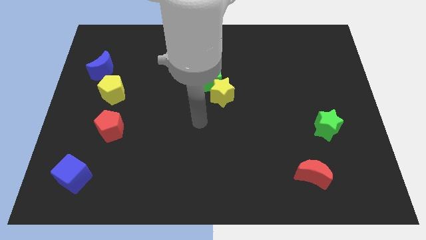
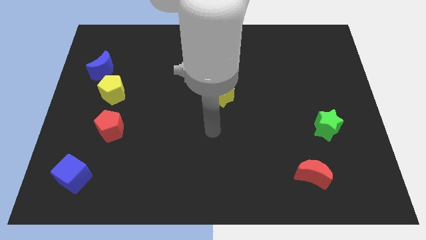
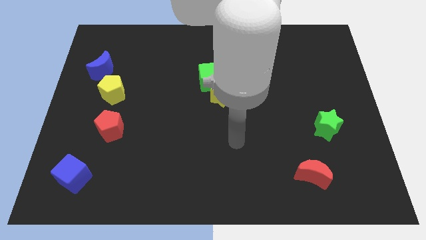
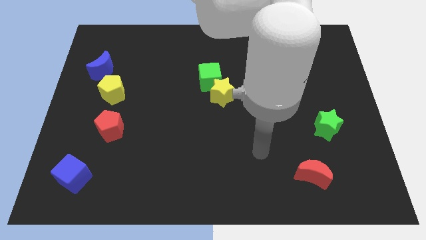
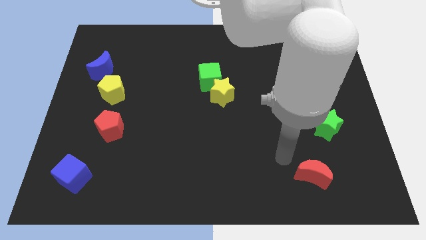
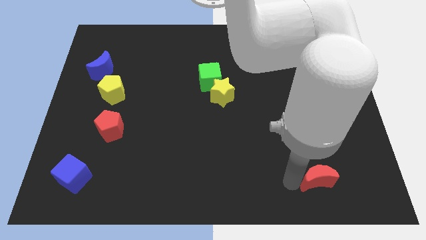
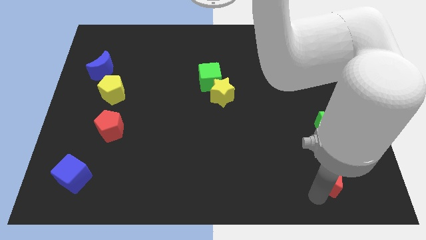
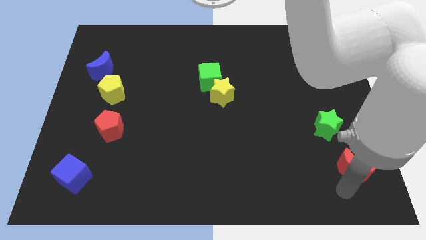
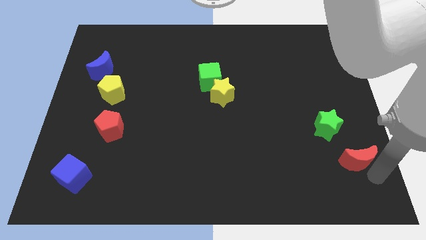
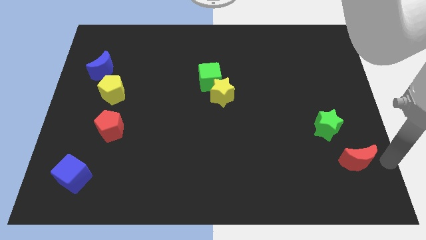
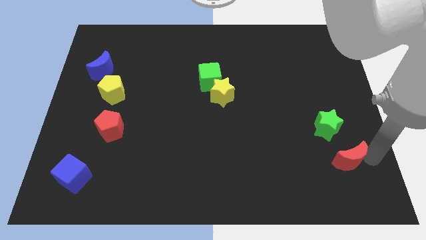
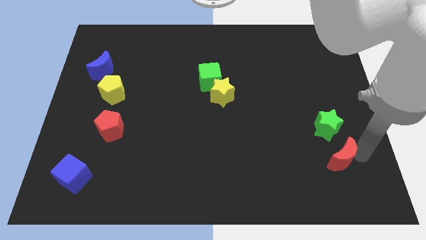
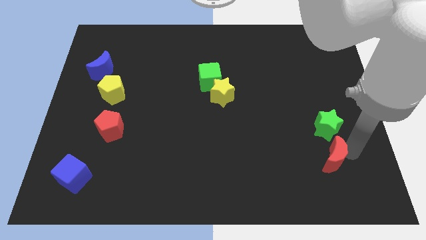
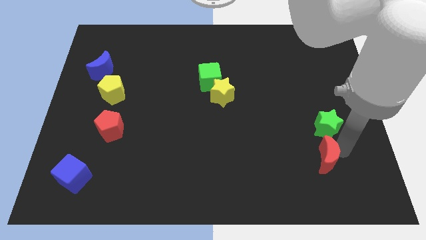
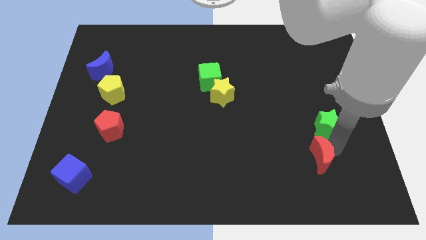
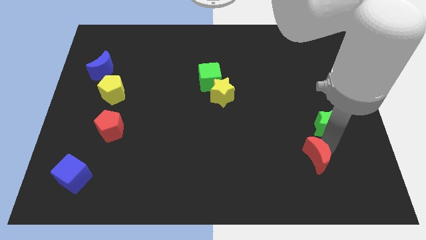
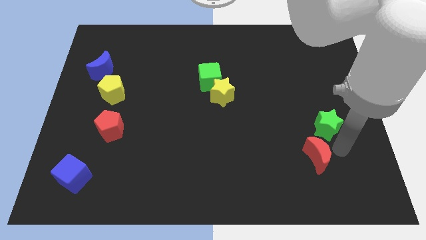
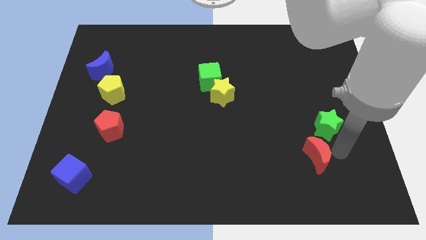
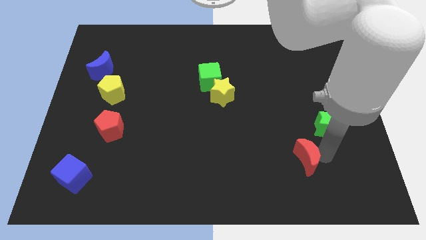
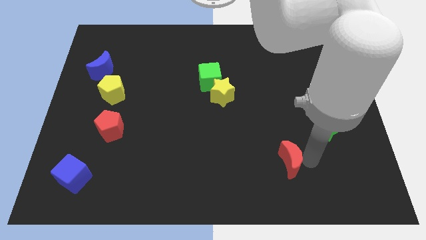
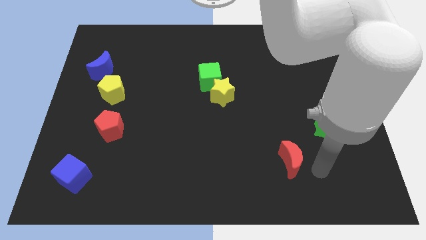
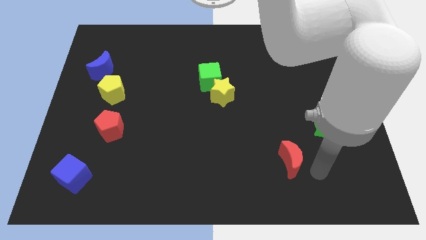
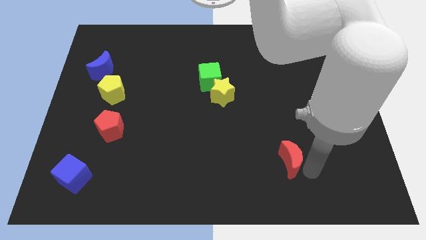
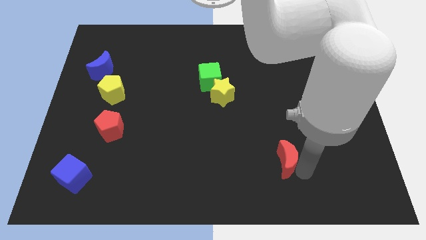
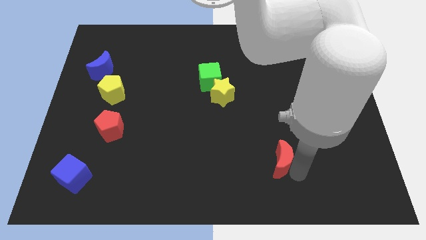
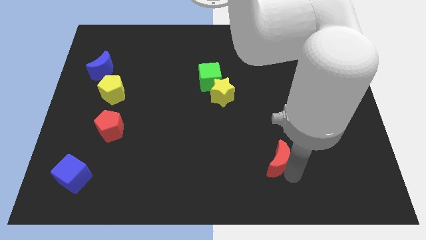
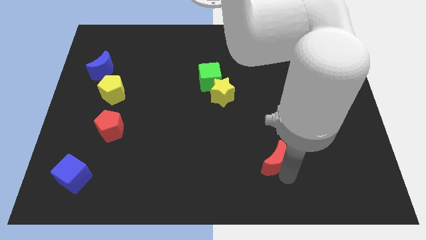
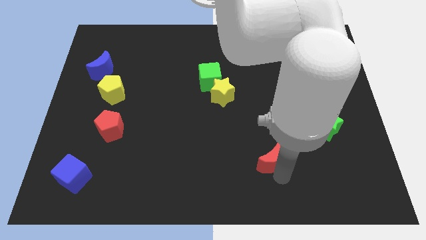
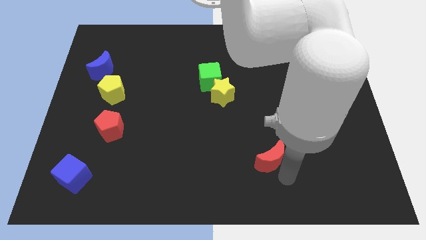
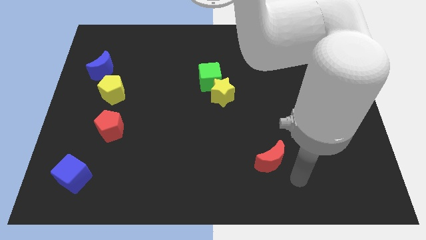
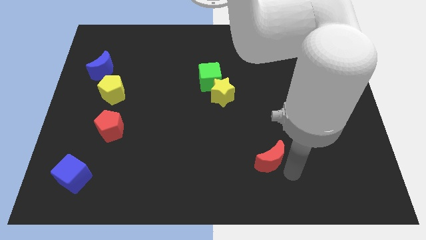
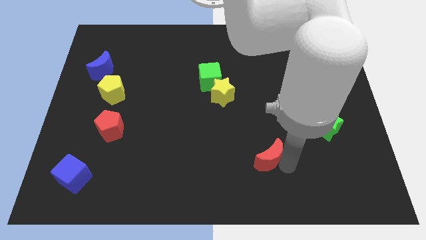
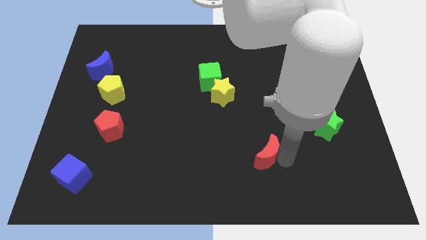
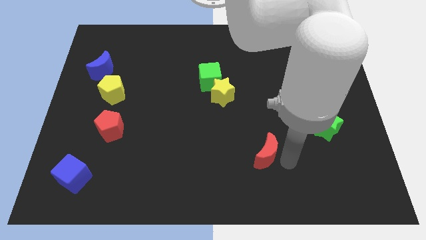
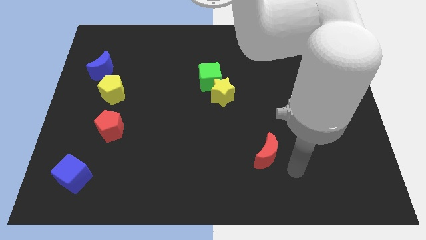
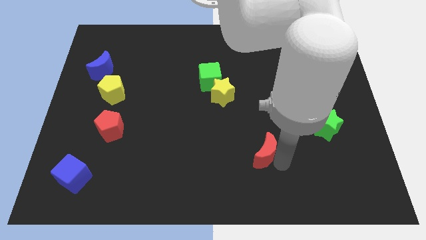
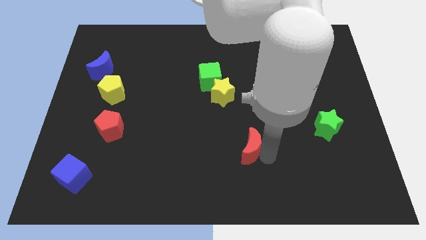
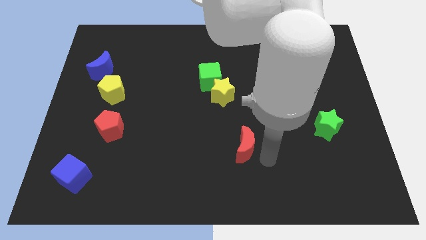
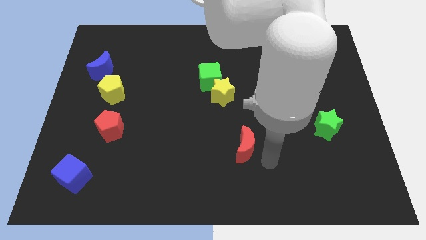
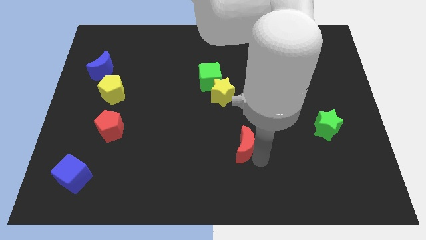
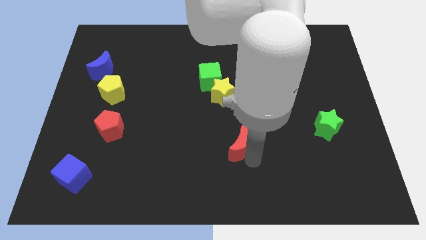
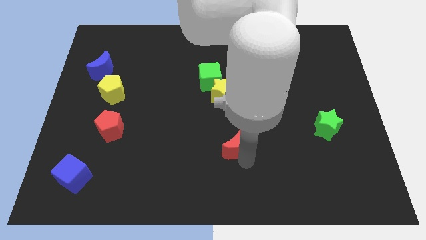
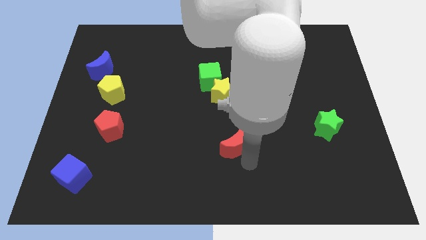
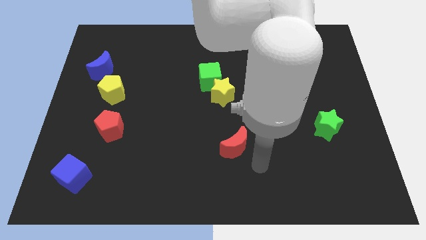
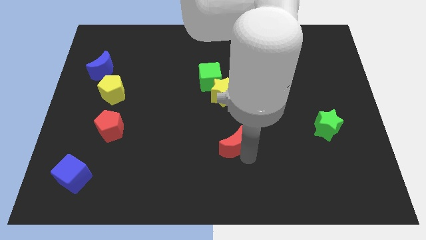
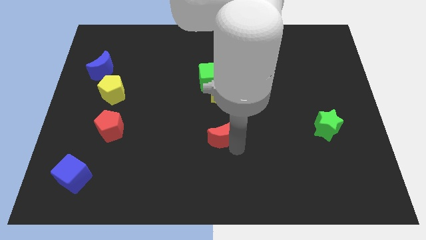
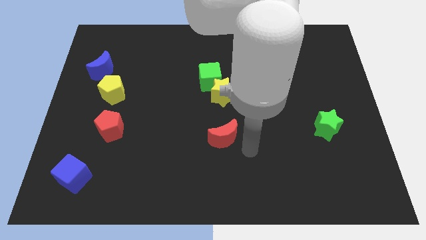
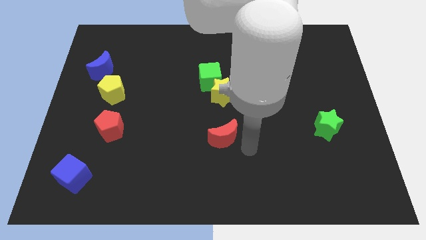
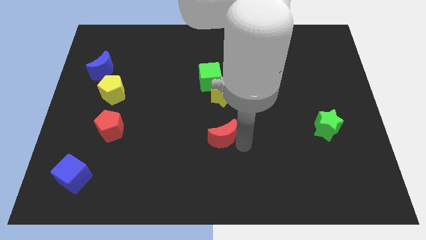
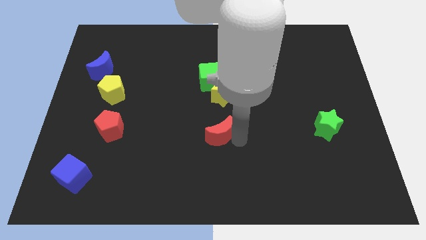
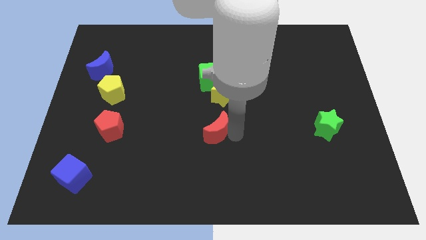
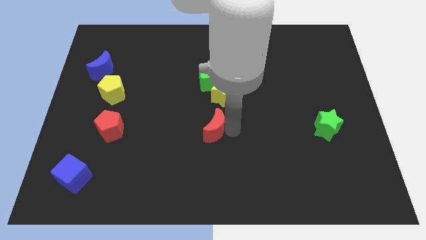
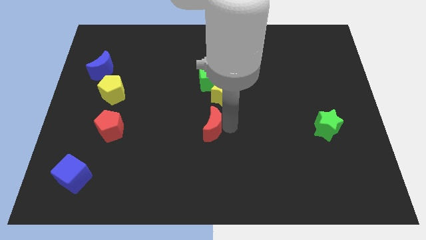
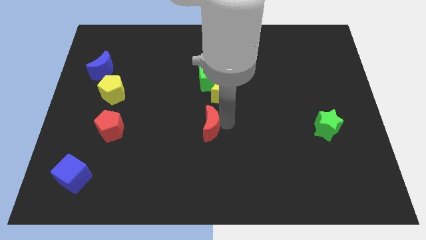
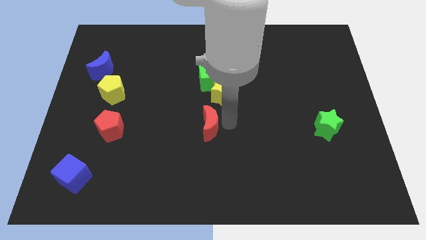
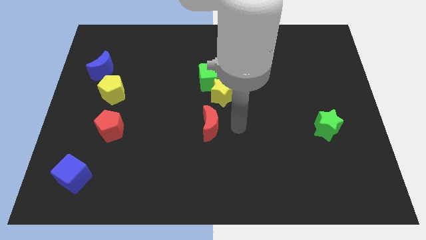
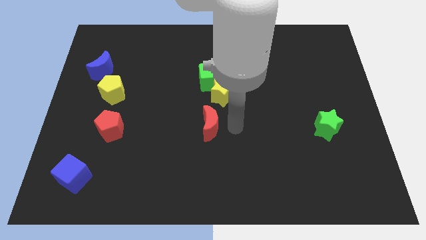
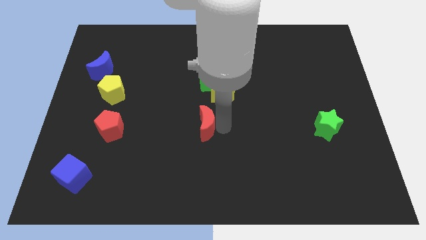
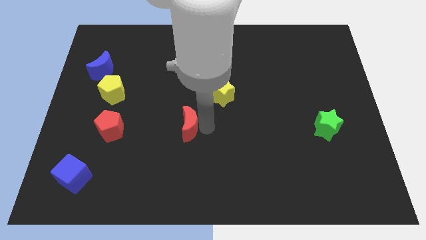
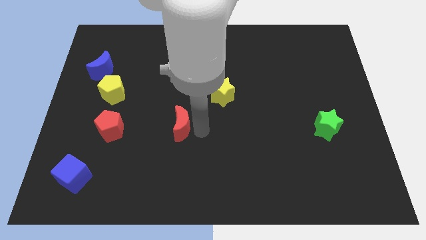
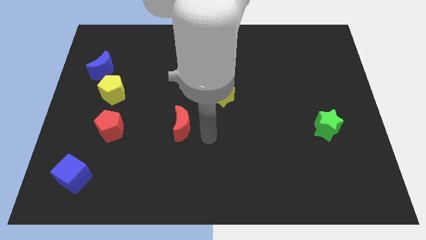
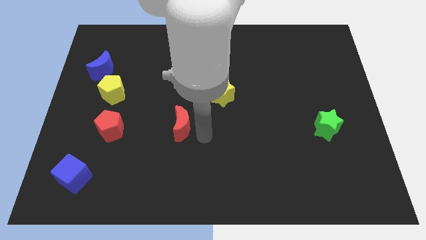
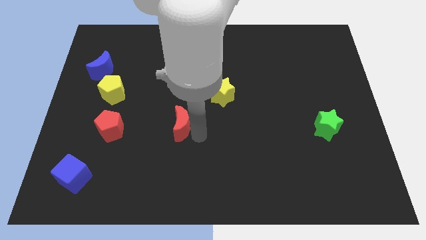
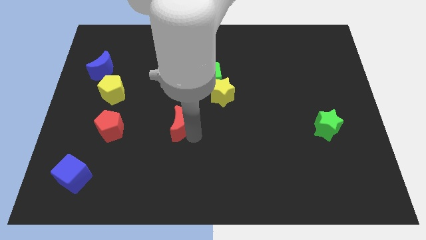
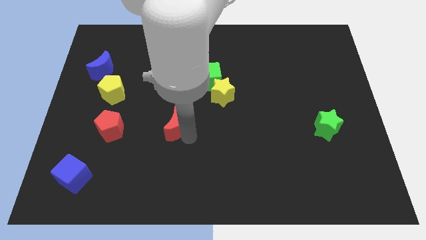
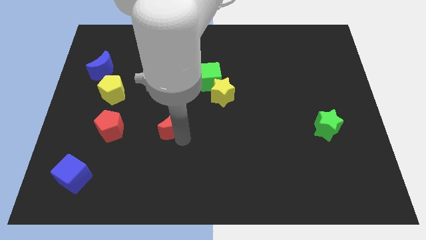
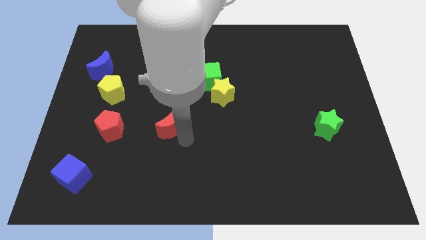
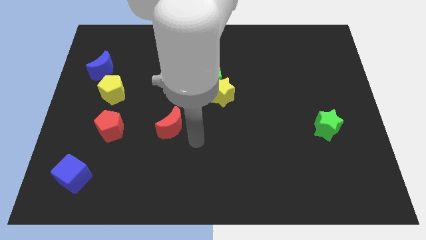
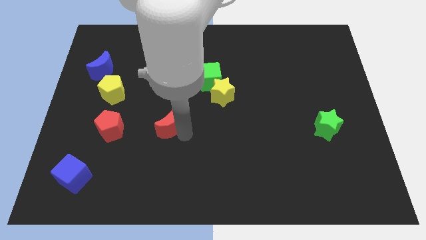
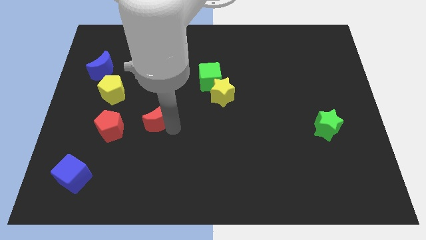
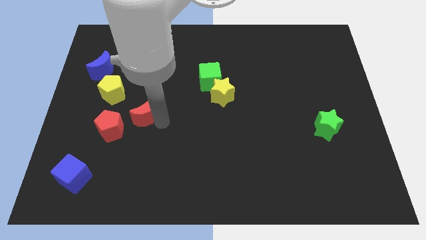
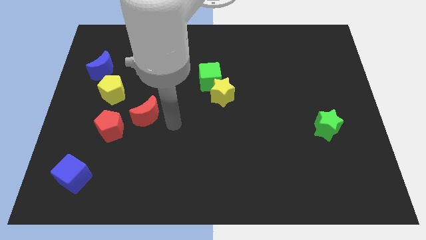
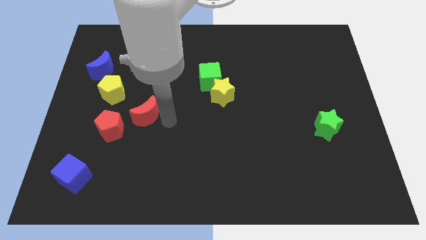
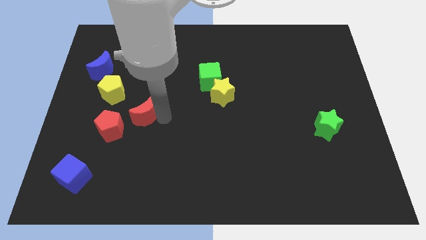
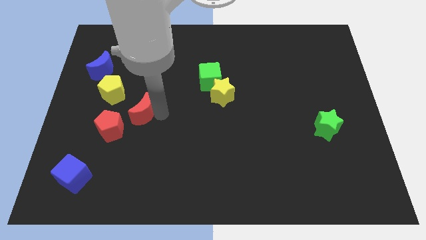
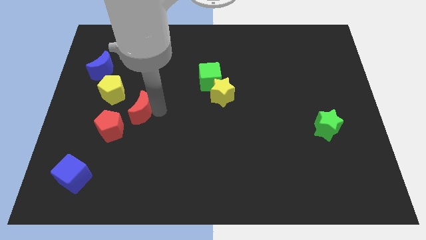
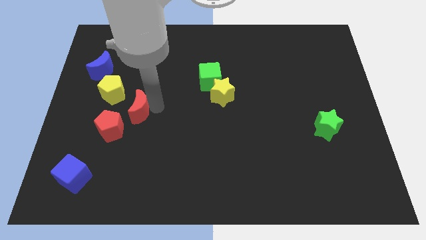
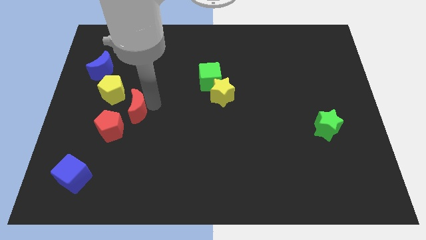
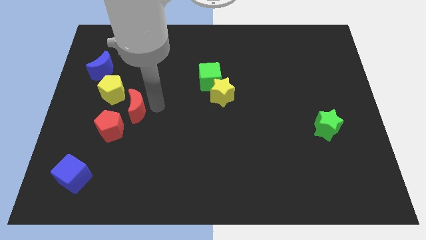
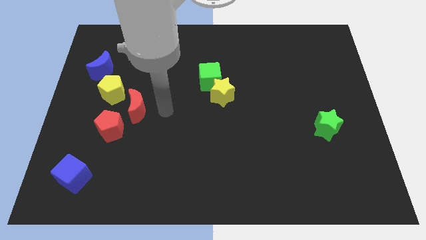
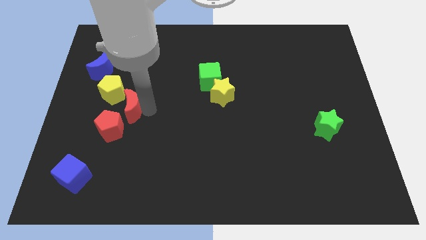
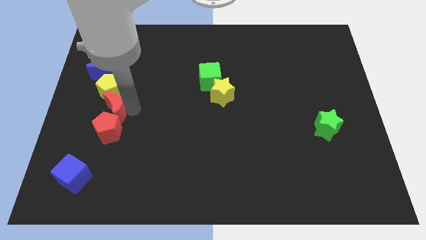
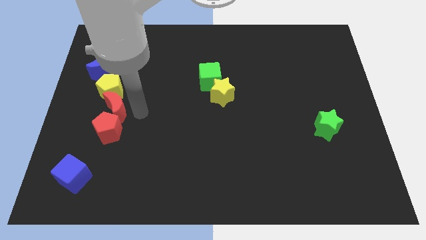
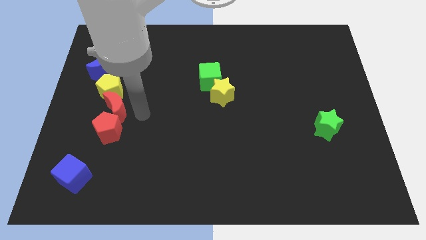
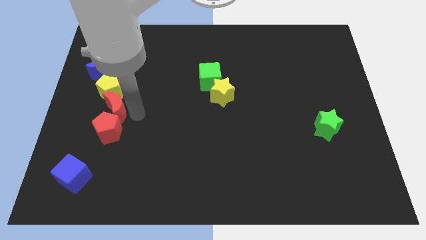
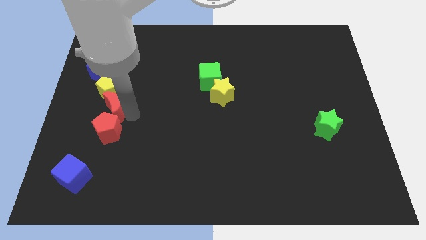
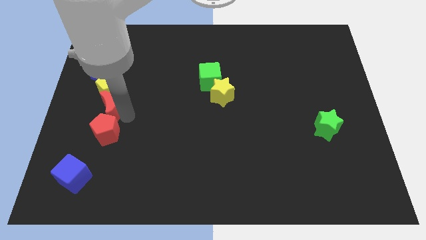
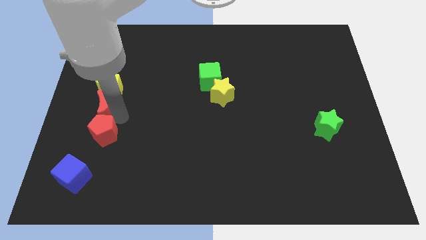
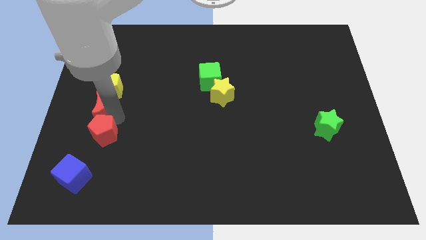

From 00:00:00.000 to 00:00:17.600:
move the red moon to the left side of the board
